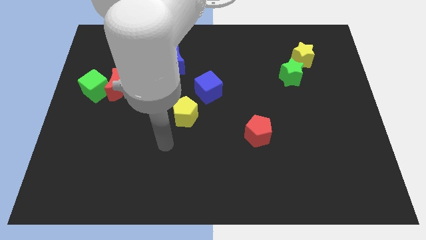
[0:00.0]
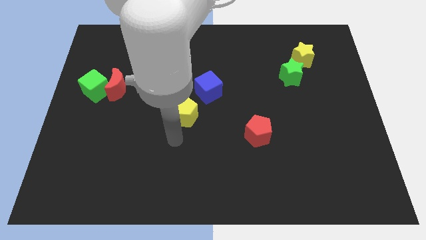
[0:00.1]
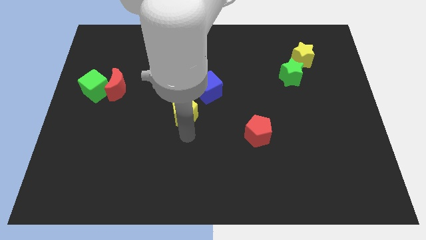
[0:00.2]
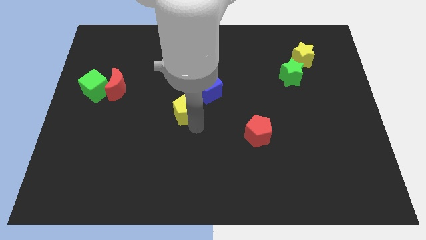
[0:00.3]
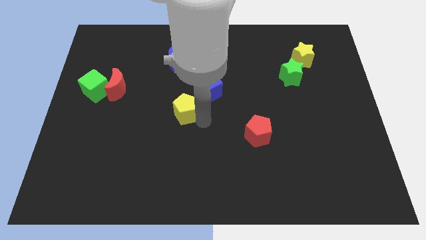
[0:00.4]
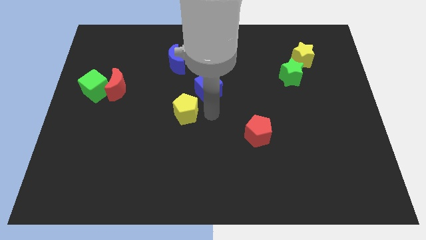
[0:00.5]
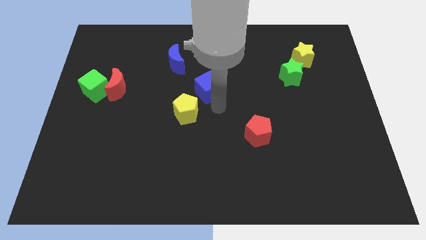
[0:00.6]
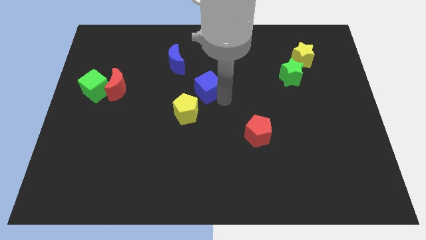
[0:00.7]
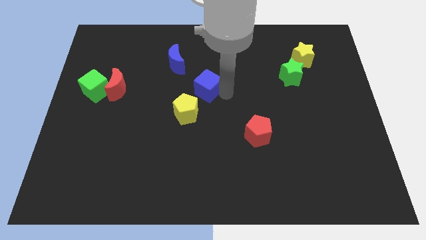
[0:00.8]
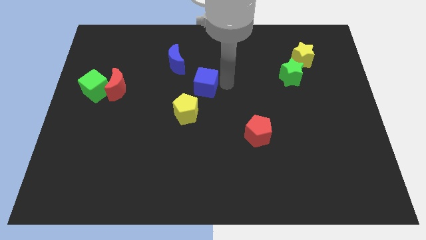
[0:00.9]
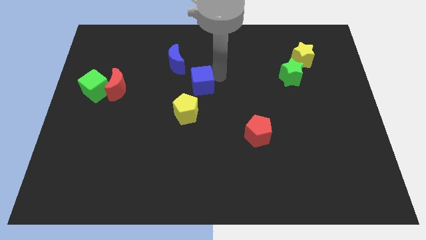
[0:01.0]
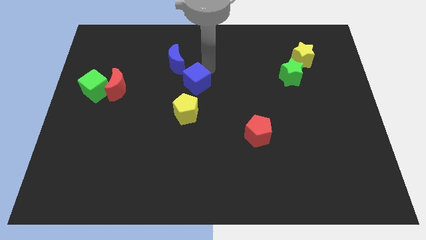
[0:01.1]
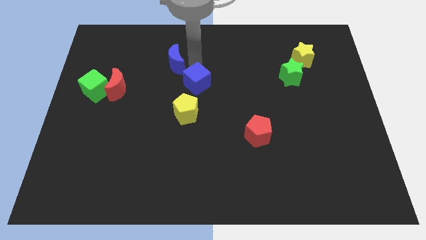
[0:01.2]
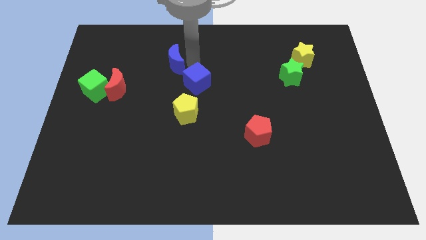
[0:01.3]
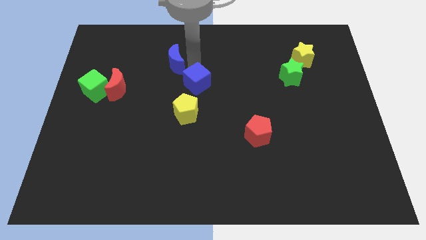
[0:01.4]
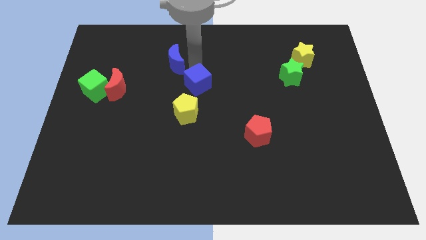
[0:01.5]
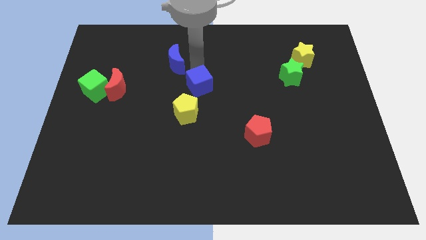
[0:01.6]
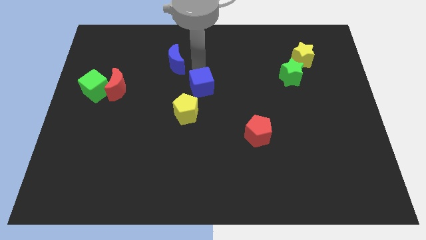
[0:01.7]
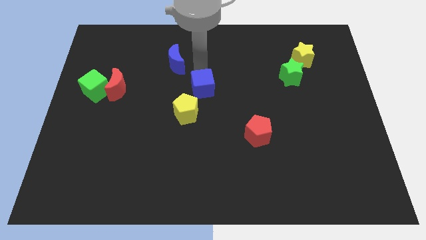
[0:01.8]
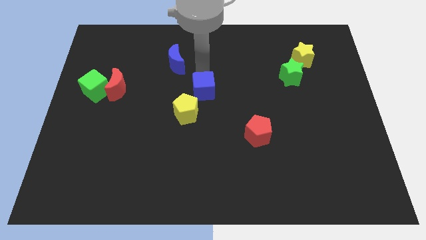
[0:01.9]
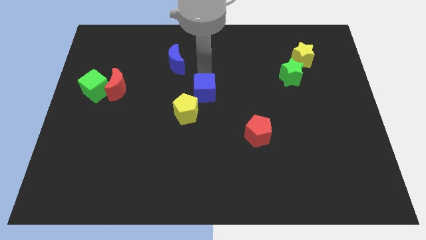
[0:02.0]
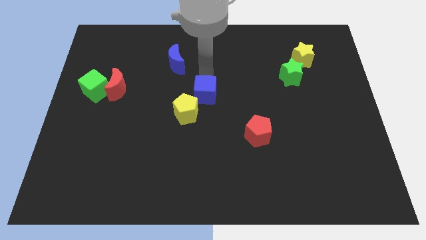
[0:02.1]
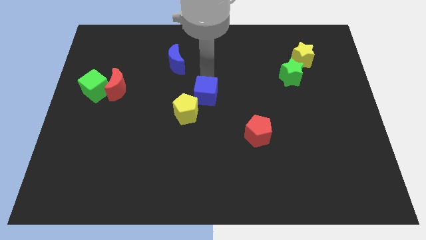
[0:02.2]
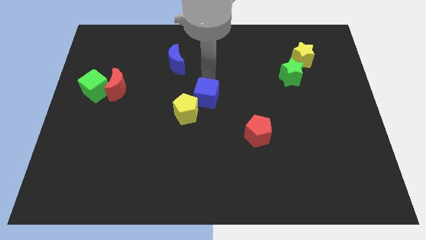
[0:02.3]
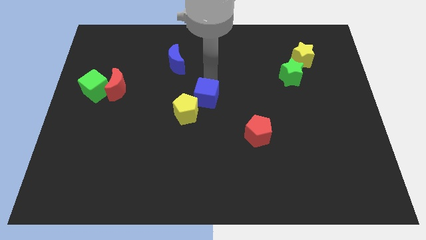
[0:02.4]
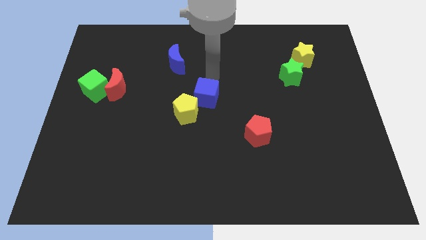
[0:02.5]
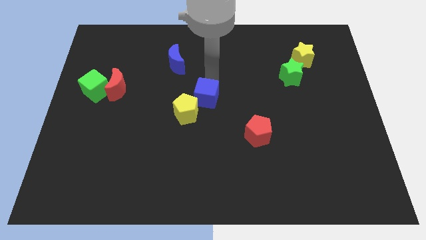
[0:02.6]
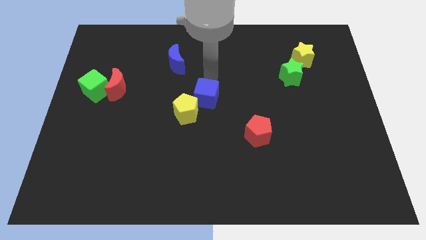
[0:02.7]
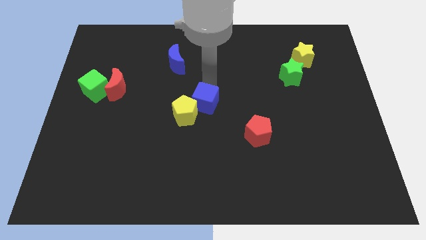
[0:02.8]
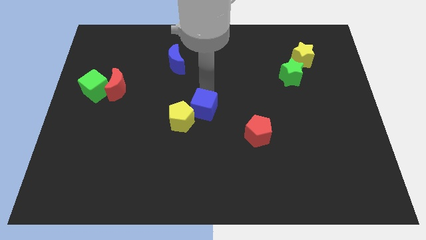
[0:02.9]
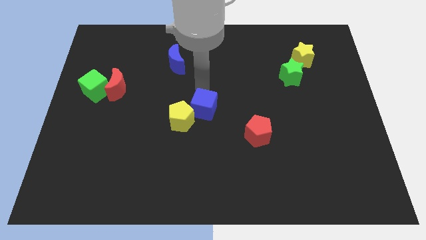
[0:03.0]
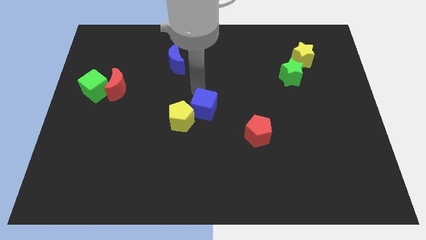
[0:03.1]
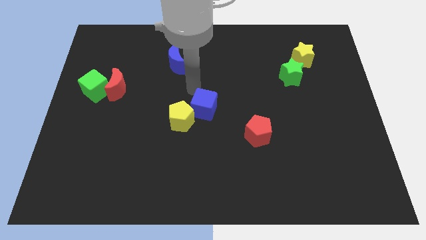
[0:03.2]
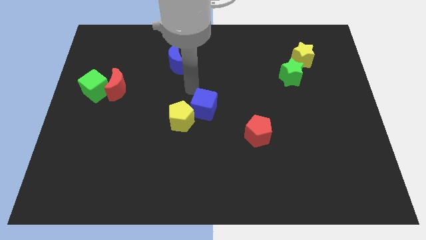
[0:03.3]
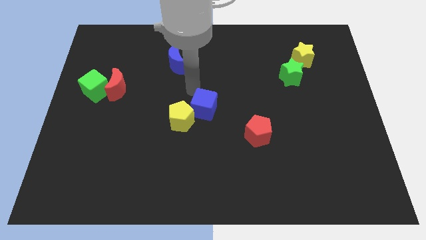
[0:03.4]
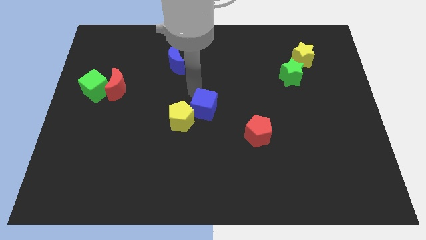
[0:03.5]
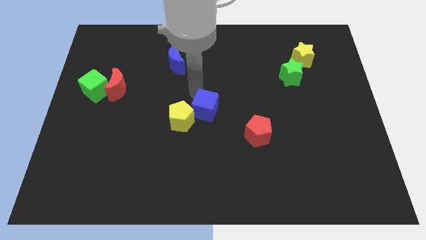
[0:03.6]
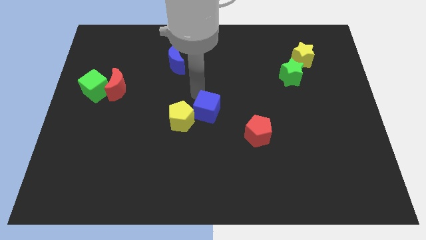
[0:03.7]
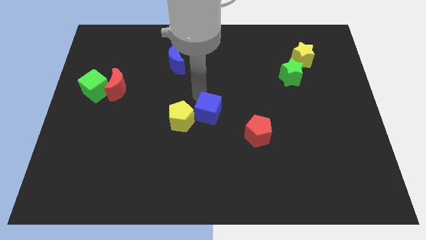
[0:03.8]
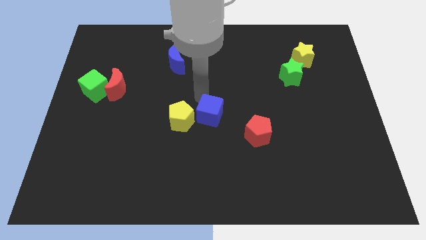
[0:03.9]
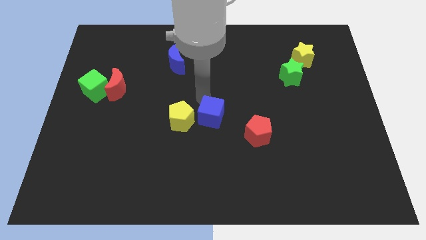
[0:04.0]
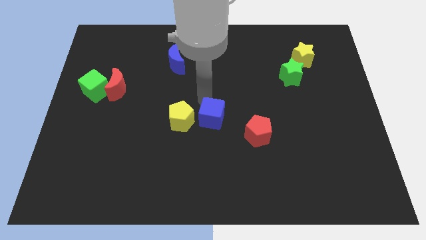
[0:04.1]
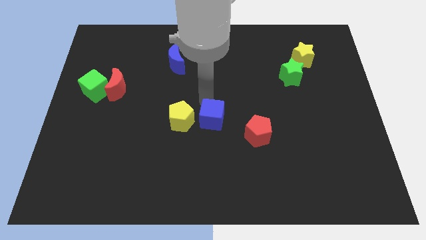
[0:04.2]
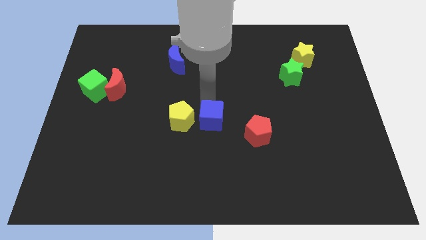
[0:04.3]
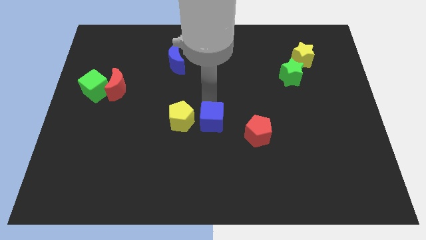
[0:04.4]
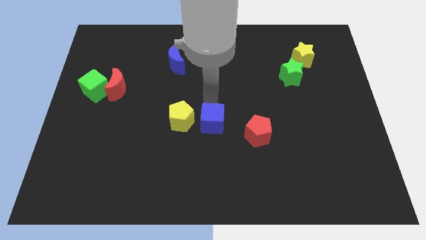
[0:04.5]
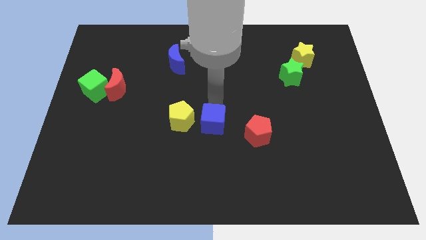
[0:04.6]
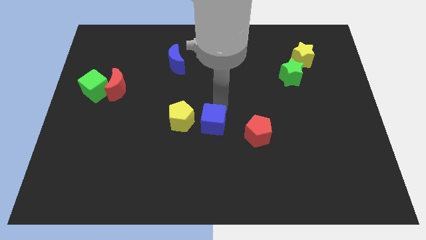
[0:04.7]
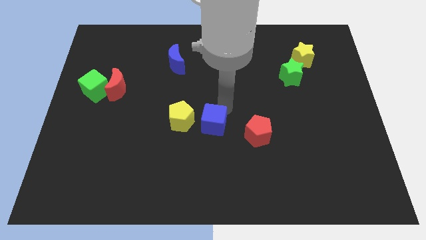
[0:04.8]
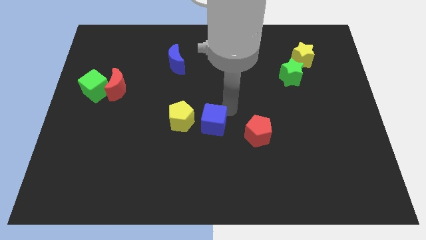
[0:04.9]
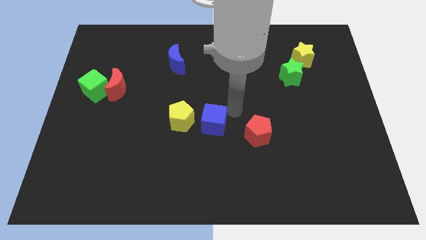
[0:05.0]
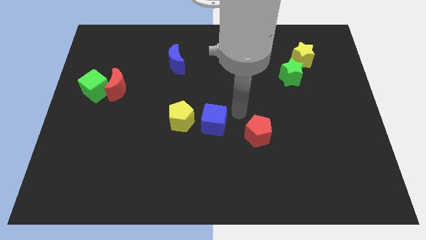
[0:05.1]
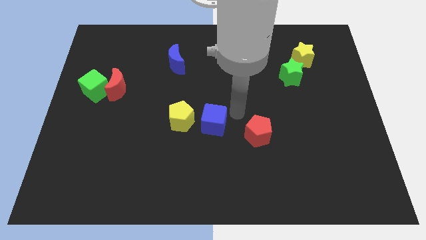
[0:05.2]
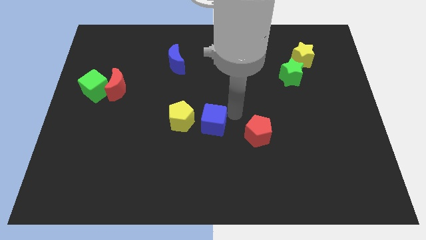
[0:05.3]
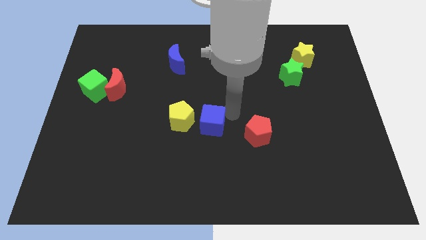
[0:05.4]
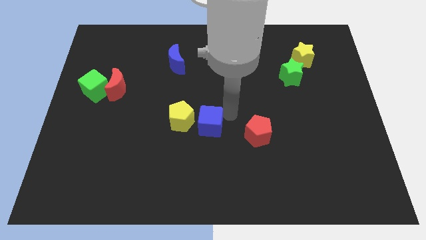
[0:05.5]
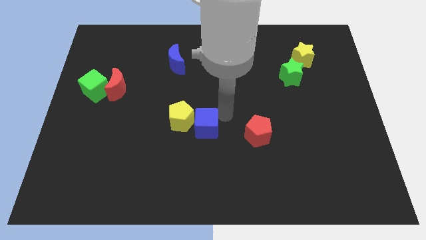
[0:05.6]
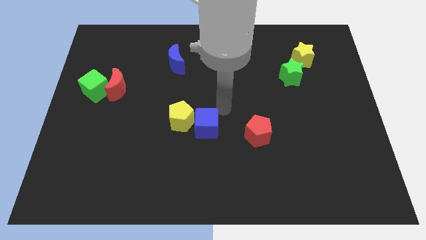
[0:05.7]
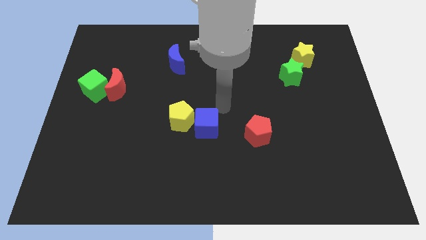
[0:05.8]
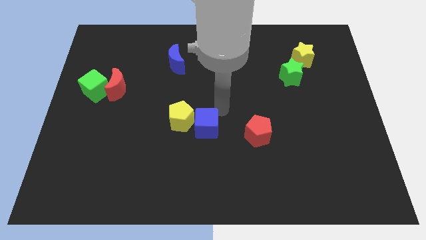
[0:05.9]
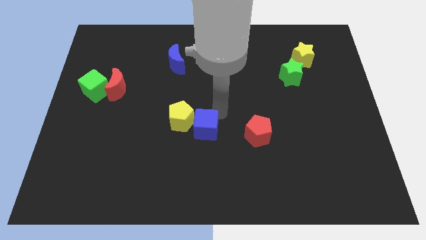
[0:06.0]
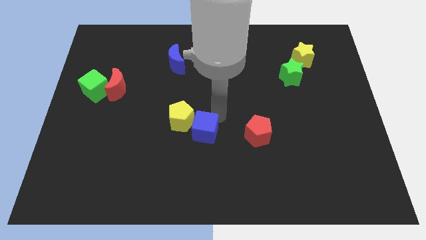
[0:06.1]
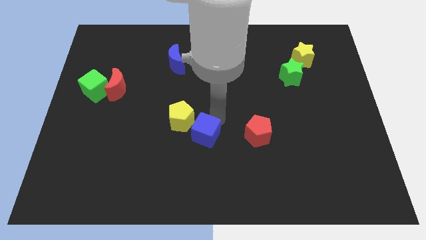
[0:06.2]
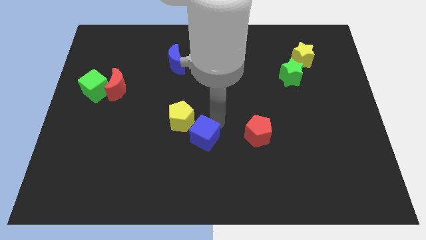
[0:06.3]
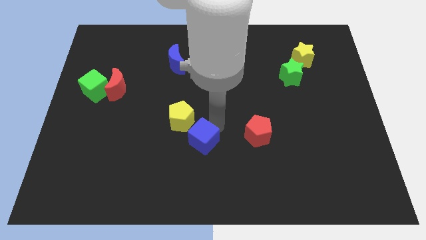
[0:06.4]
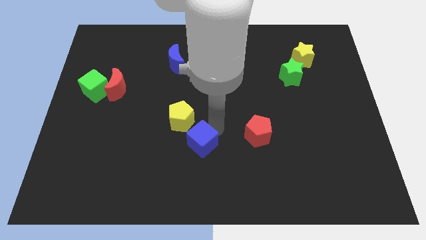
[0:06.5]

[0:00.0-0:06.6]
slide the blue cube to the bottom of the yellow pentagon
